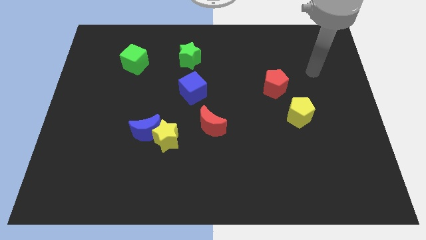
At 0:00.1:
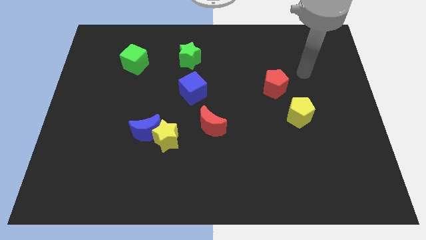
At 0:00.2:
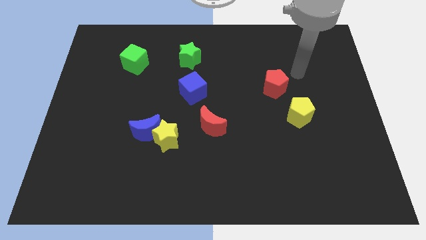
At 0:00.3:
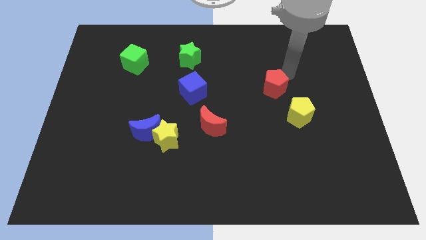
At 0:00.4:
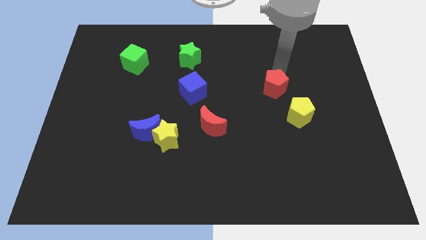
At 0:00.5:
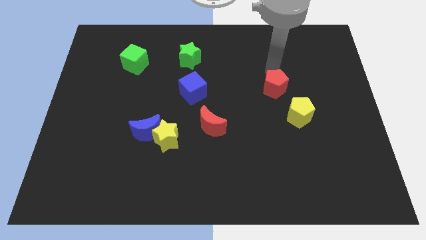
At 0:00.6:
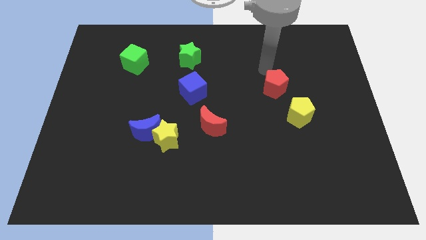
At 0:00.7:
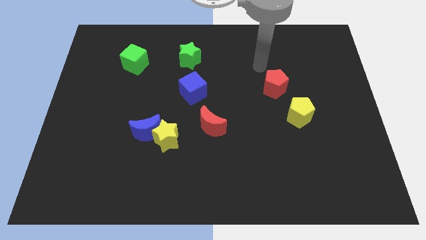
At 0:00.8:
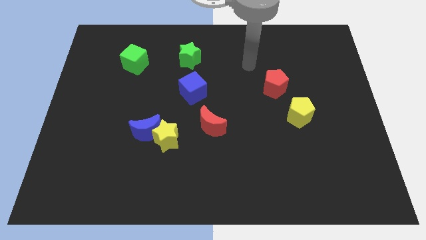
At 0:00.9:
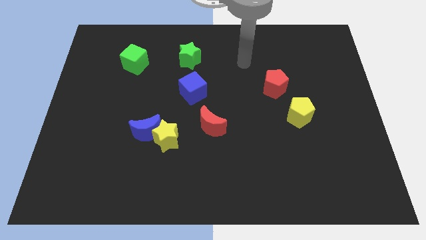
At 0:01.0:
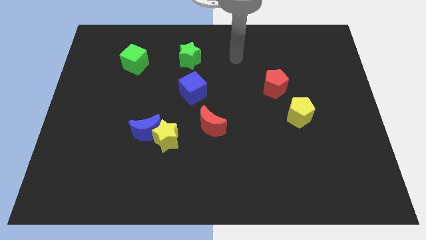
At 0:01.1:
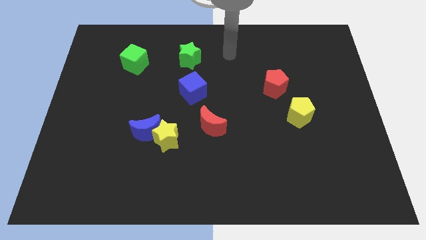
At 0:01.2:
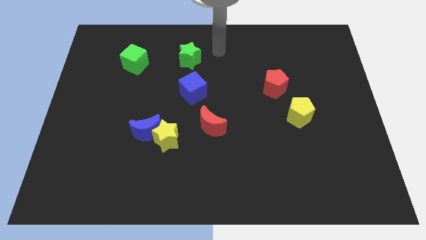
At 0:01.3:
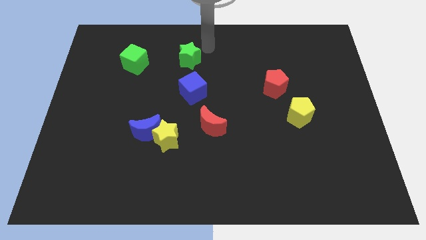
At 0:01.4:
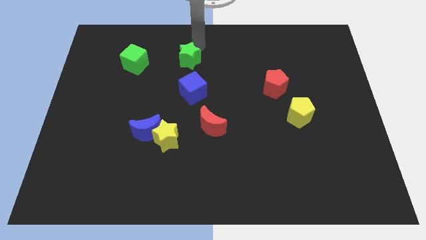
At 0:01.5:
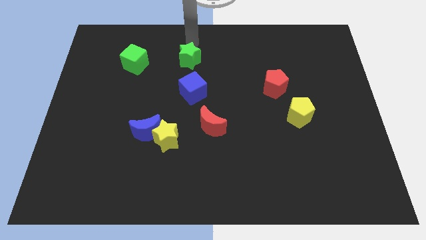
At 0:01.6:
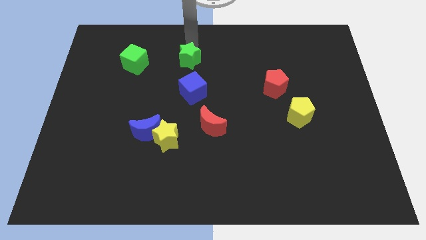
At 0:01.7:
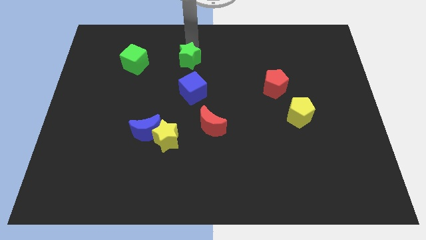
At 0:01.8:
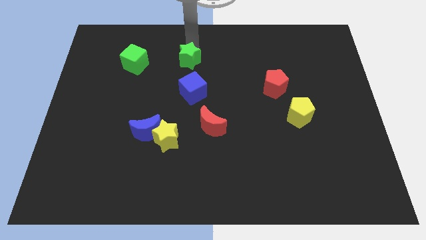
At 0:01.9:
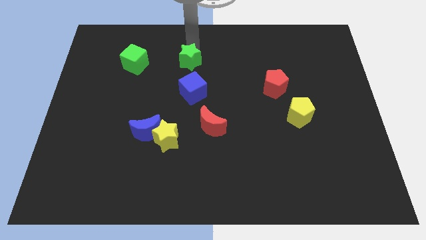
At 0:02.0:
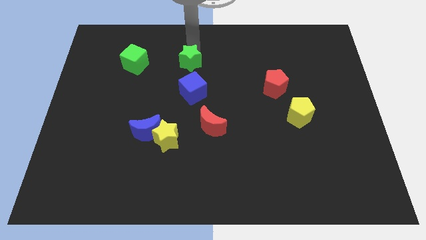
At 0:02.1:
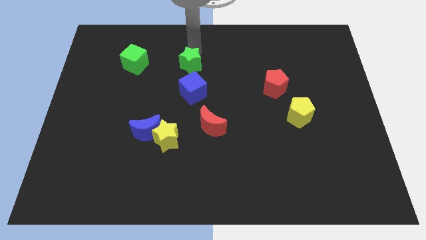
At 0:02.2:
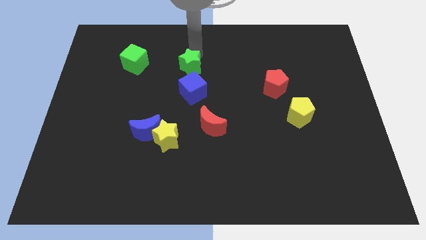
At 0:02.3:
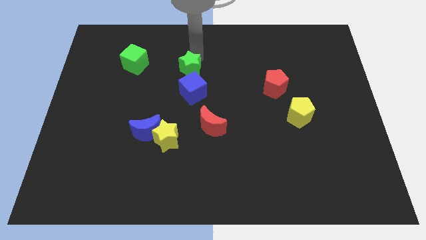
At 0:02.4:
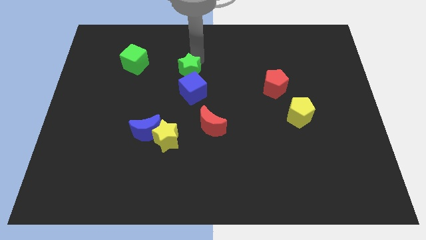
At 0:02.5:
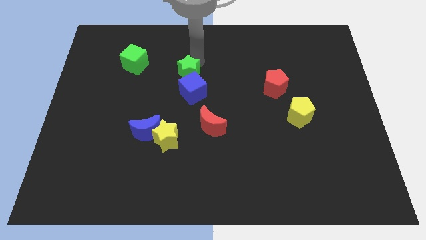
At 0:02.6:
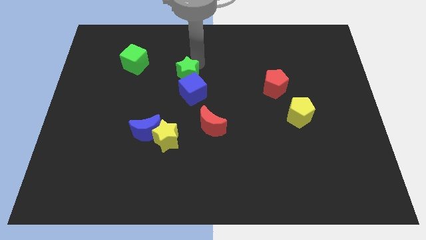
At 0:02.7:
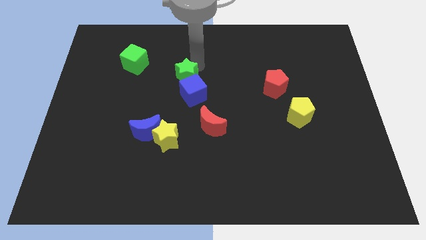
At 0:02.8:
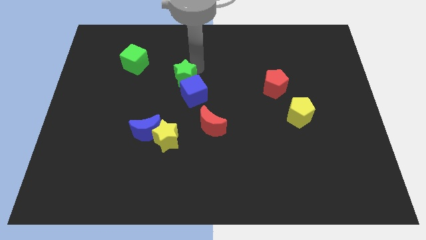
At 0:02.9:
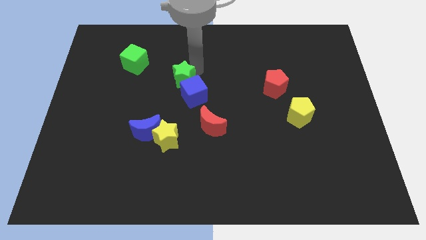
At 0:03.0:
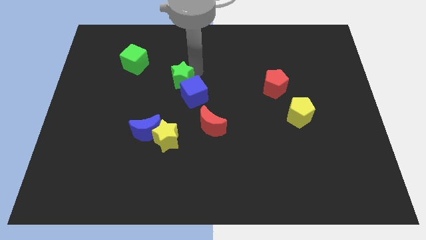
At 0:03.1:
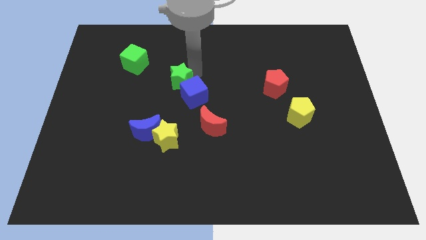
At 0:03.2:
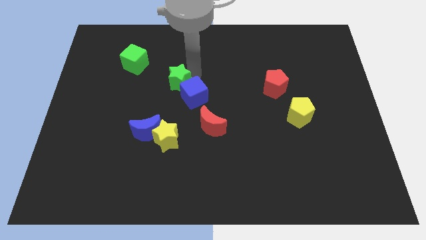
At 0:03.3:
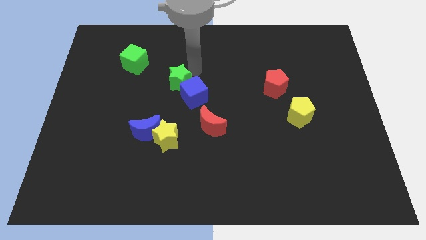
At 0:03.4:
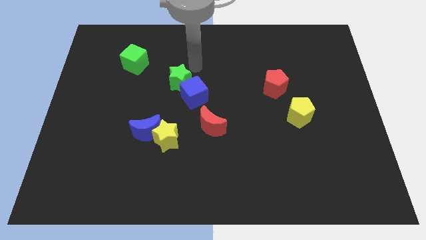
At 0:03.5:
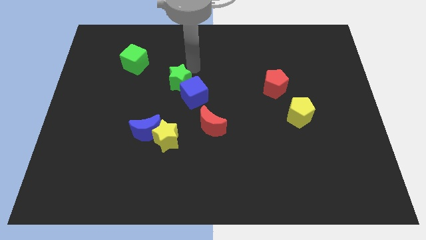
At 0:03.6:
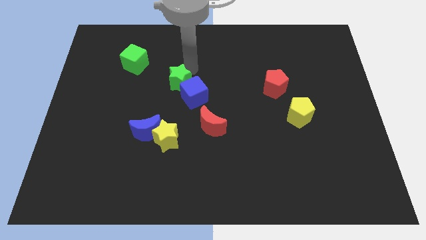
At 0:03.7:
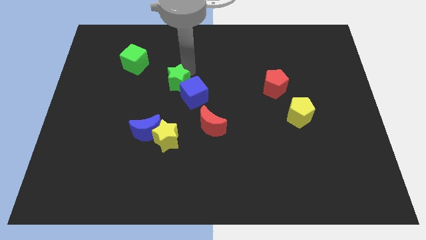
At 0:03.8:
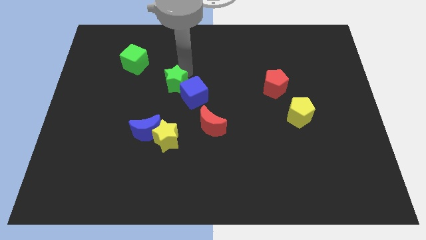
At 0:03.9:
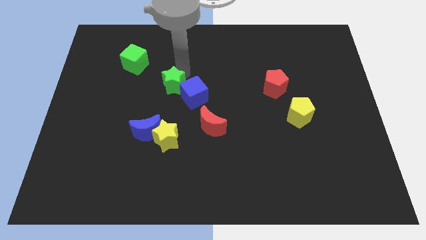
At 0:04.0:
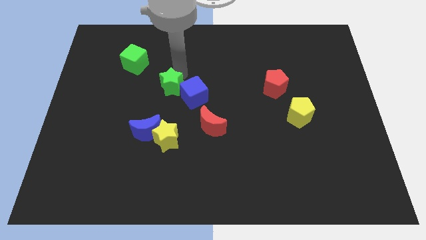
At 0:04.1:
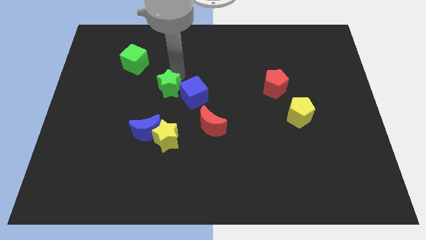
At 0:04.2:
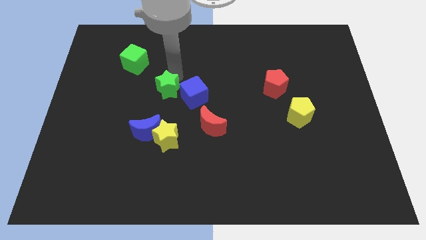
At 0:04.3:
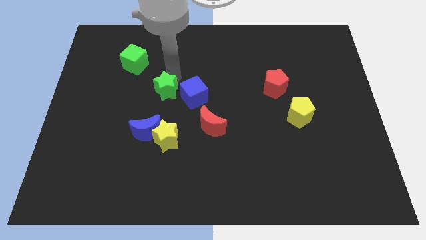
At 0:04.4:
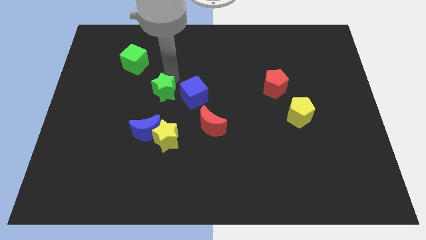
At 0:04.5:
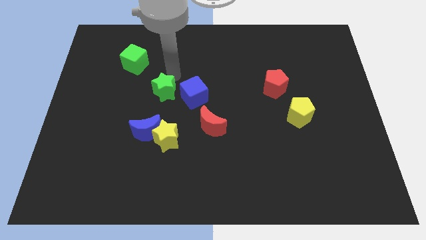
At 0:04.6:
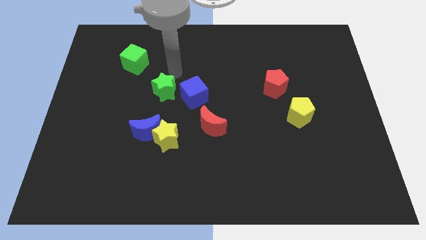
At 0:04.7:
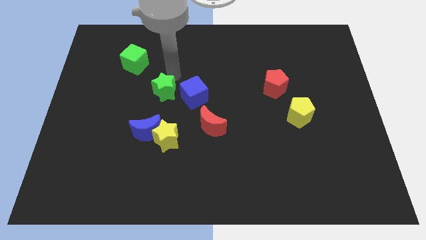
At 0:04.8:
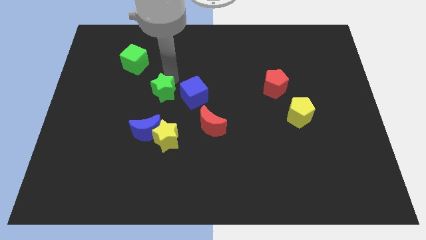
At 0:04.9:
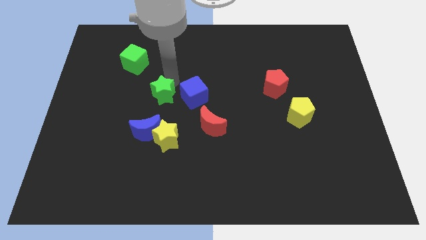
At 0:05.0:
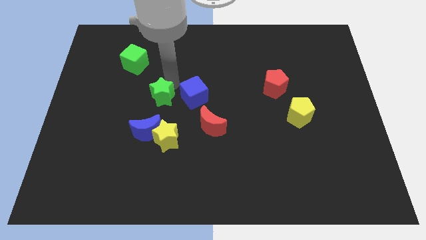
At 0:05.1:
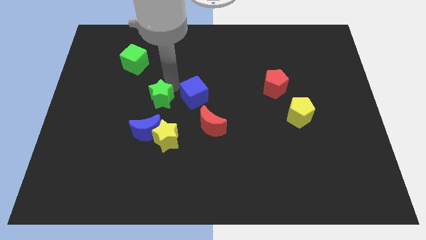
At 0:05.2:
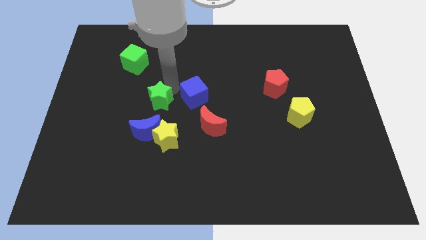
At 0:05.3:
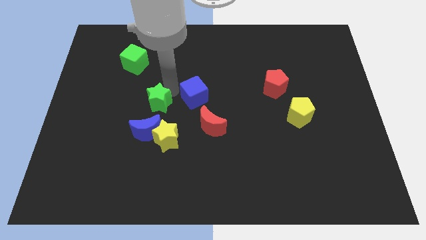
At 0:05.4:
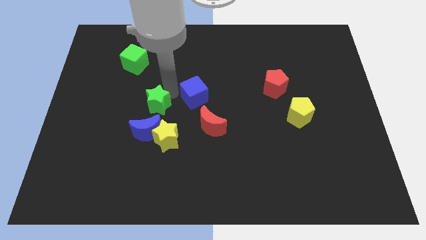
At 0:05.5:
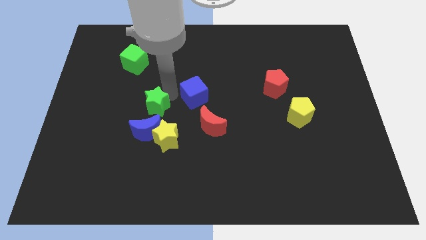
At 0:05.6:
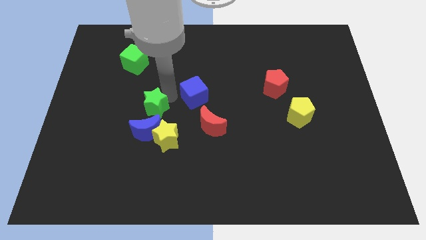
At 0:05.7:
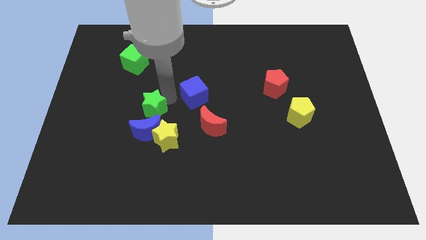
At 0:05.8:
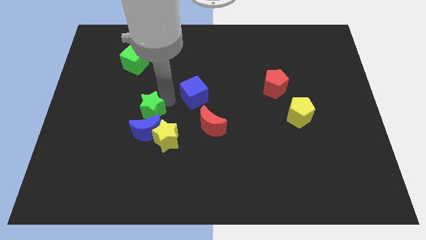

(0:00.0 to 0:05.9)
push the green star to the blue moon

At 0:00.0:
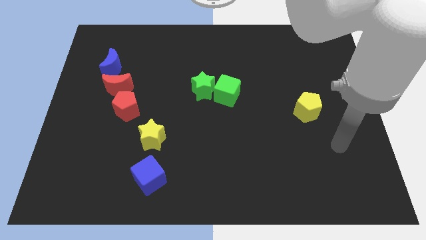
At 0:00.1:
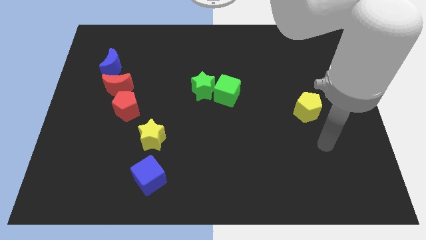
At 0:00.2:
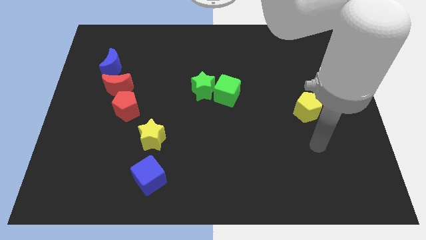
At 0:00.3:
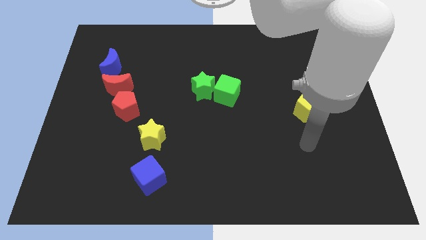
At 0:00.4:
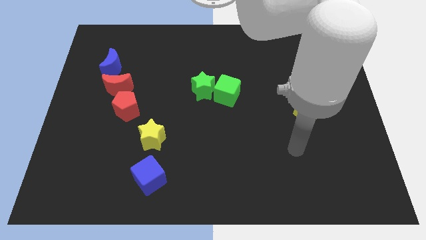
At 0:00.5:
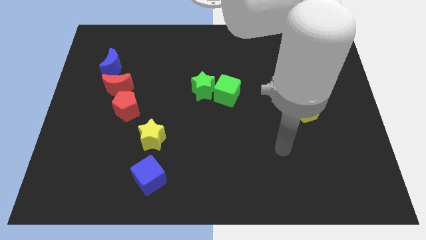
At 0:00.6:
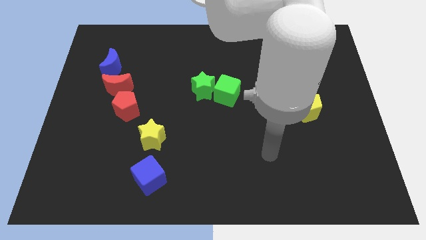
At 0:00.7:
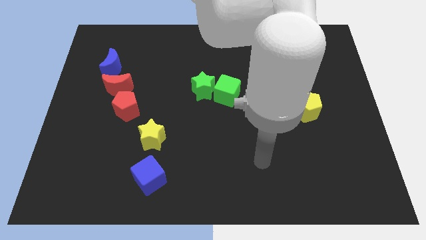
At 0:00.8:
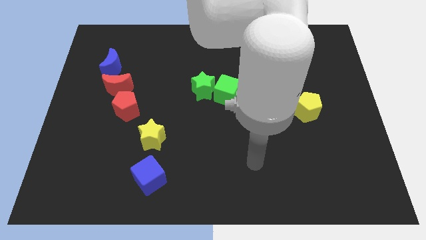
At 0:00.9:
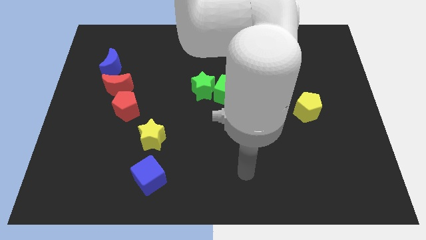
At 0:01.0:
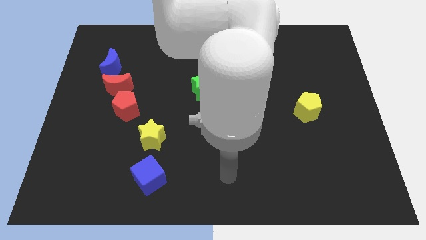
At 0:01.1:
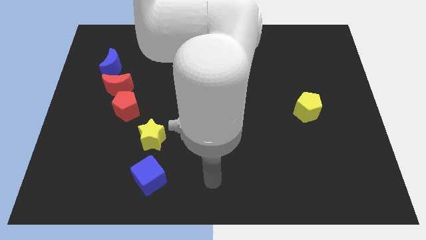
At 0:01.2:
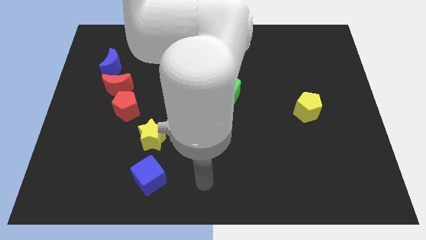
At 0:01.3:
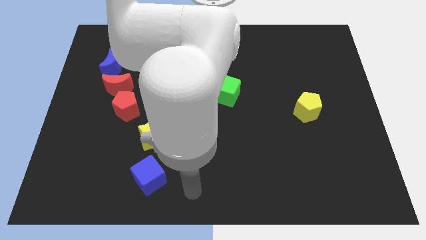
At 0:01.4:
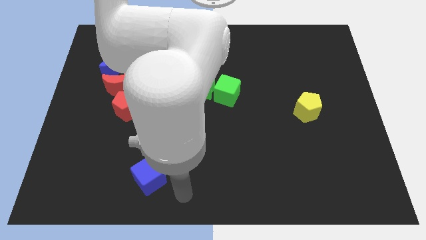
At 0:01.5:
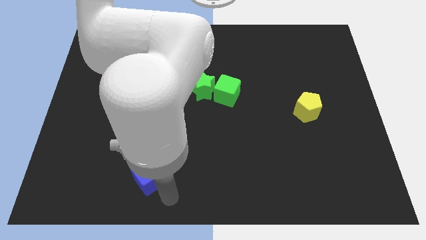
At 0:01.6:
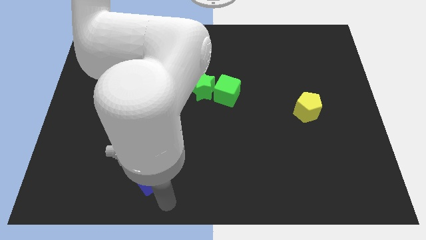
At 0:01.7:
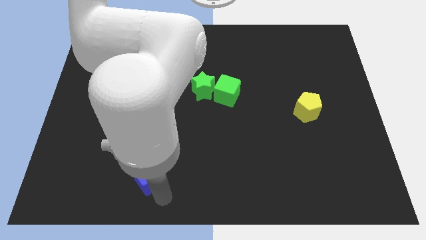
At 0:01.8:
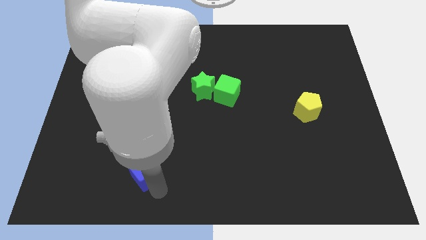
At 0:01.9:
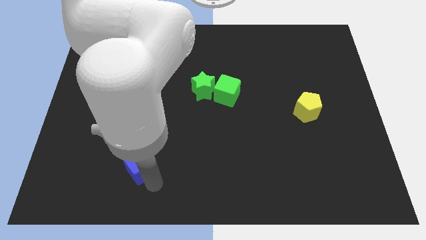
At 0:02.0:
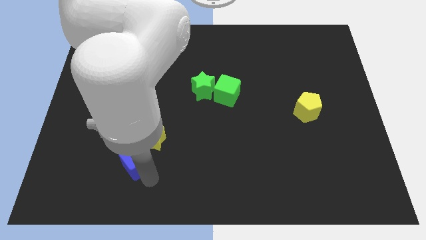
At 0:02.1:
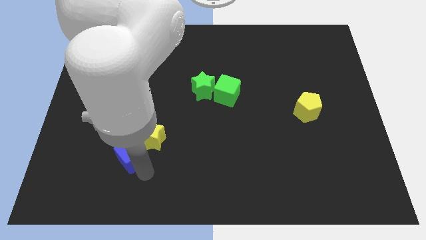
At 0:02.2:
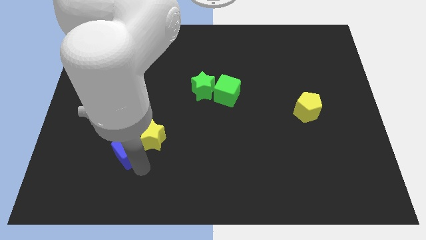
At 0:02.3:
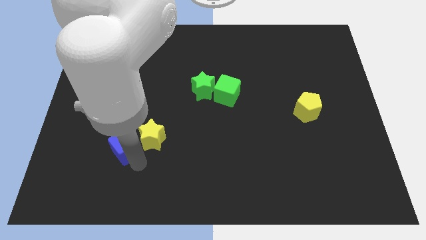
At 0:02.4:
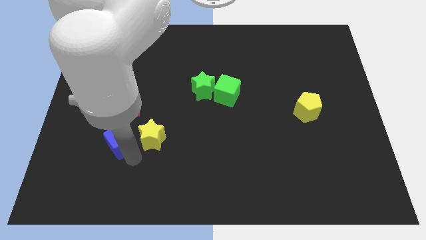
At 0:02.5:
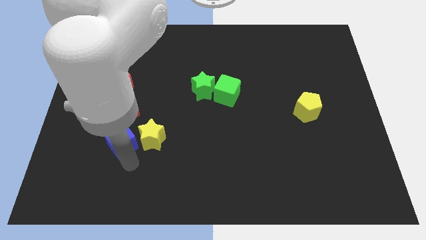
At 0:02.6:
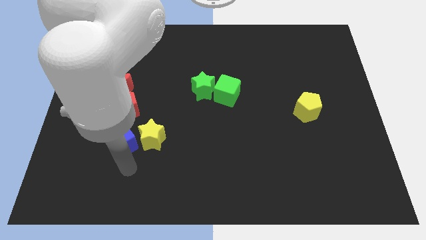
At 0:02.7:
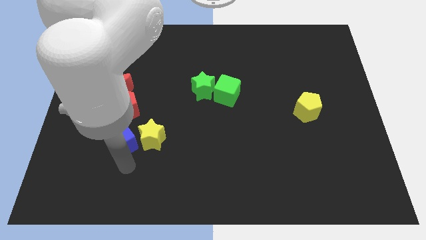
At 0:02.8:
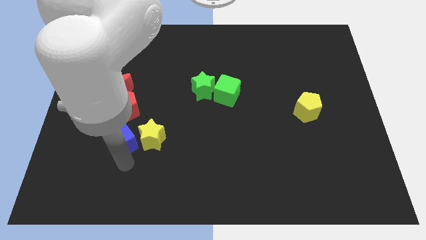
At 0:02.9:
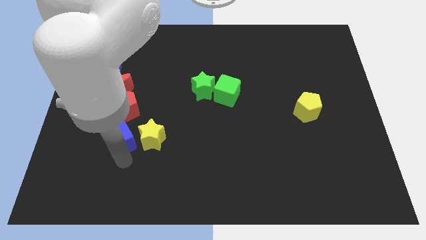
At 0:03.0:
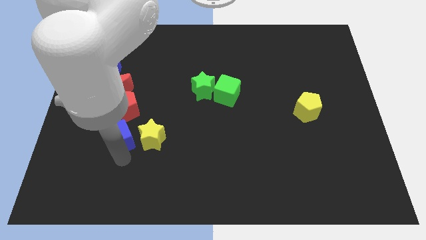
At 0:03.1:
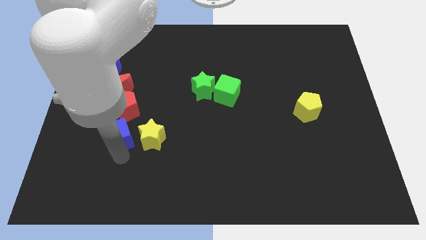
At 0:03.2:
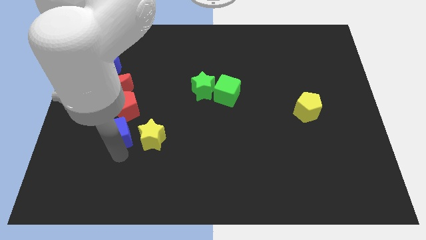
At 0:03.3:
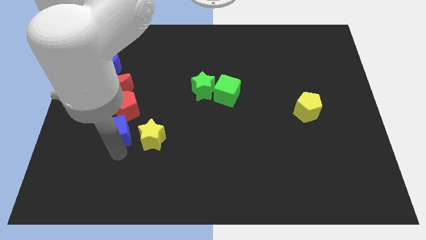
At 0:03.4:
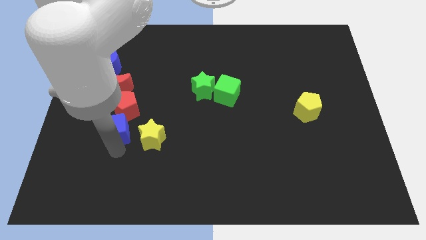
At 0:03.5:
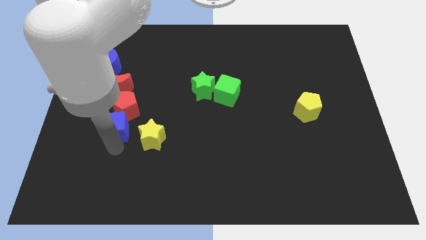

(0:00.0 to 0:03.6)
push the blue cube towards the red pentagon
